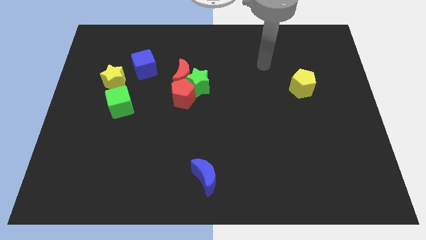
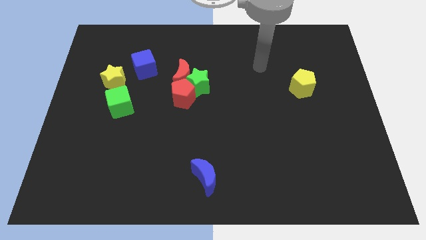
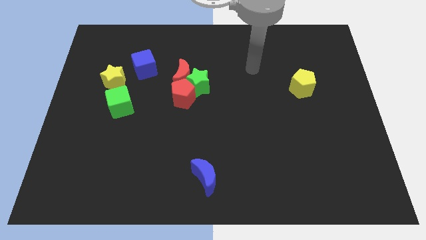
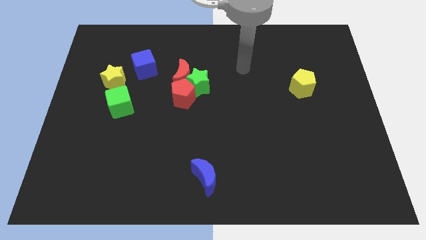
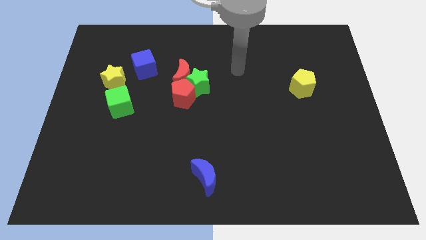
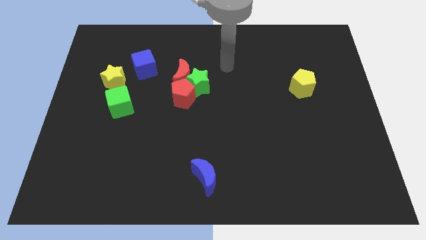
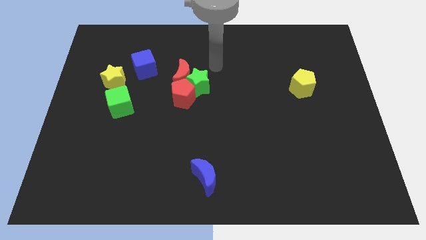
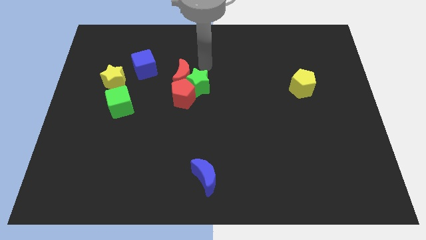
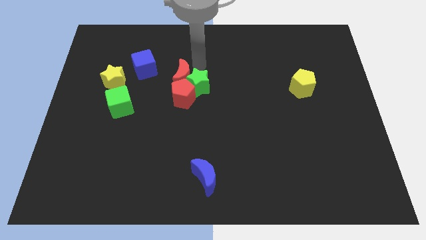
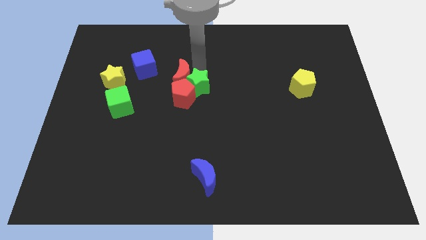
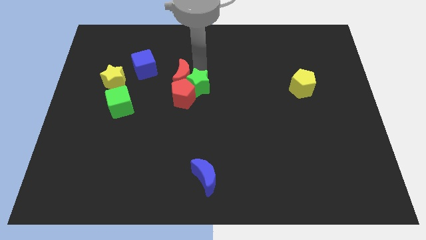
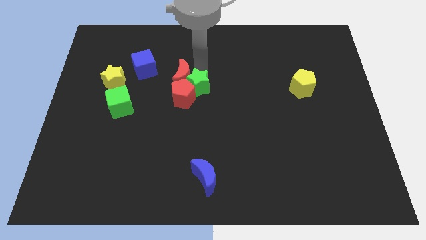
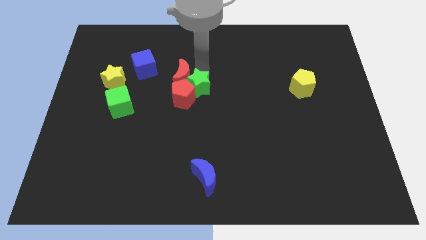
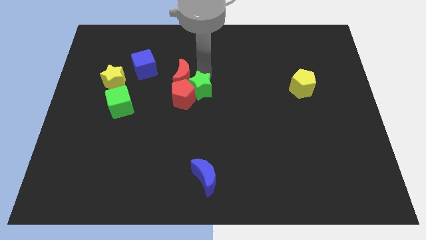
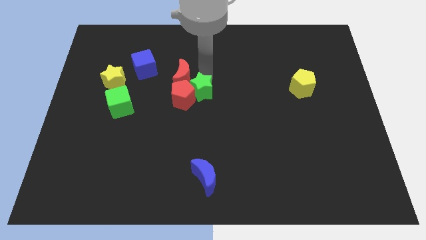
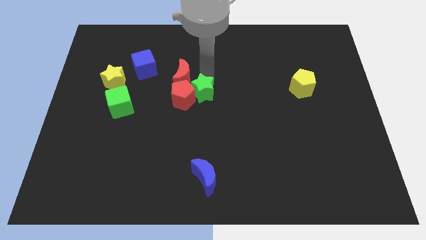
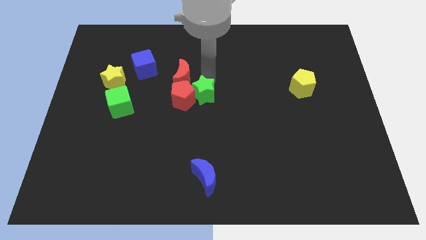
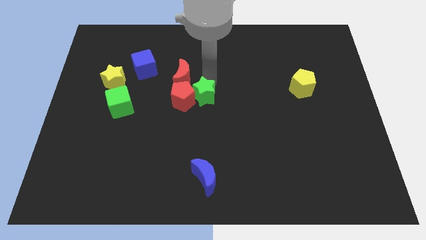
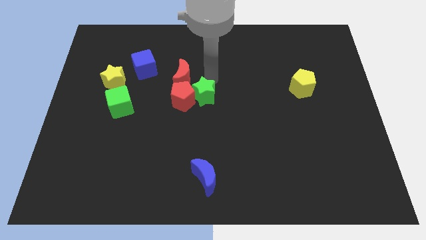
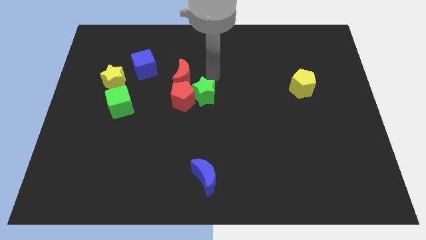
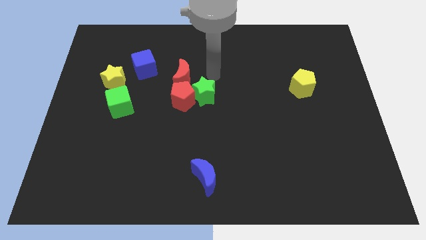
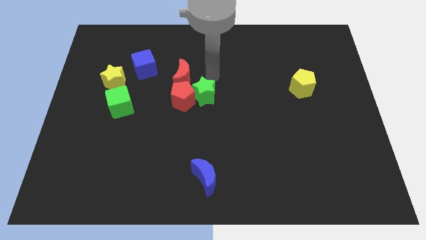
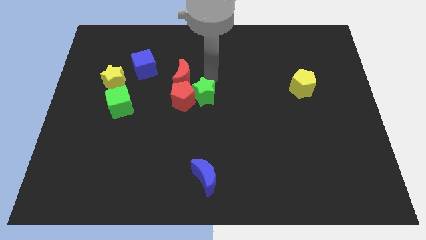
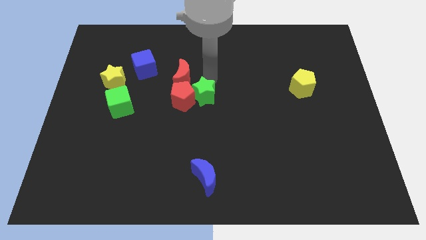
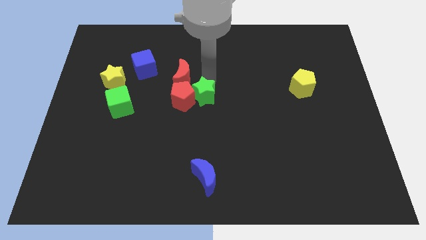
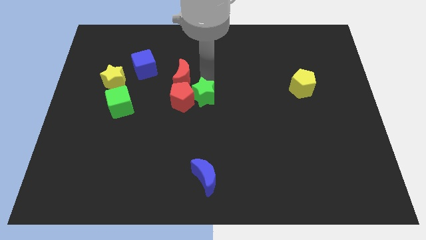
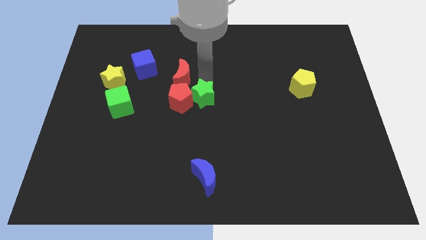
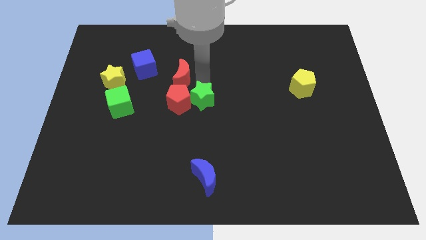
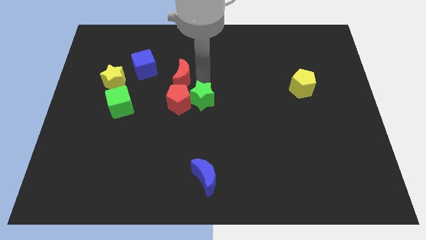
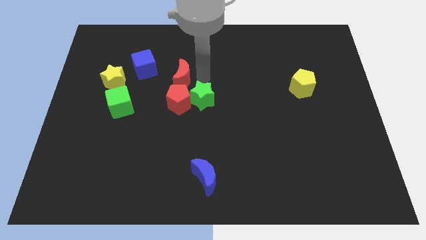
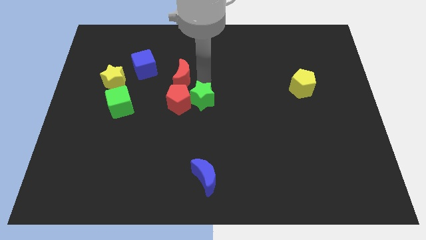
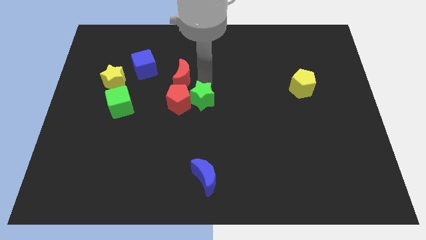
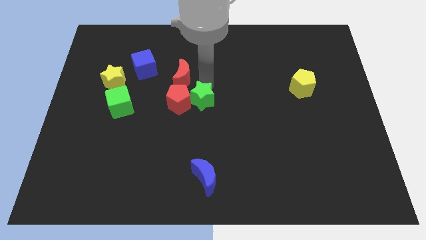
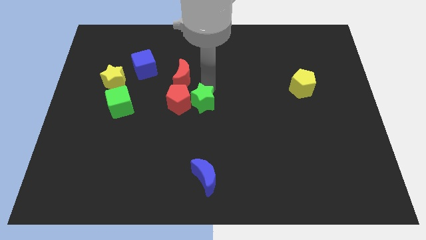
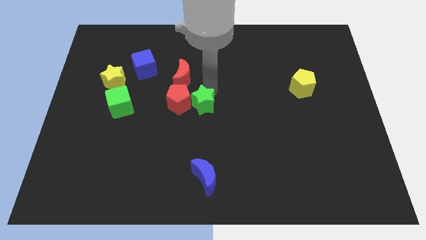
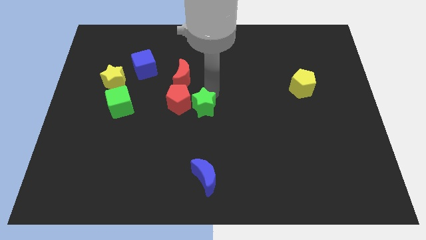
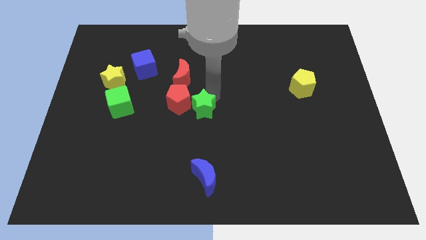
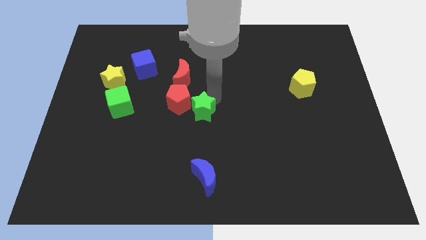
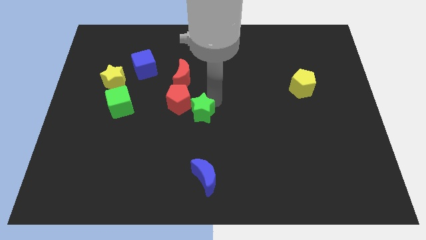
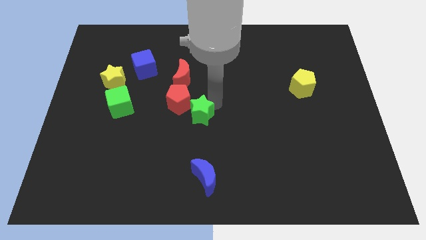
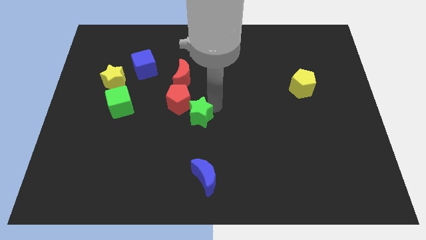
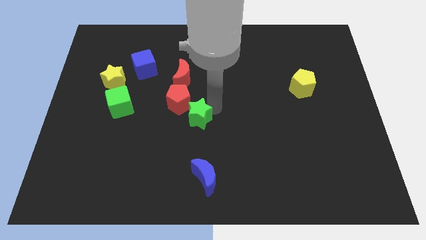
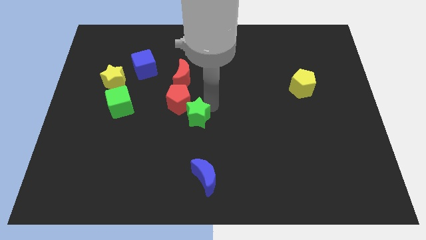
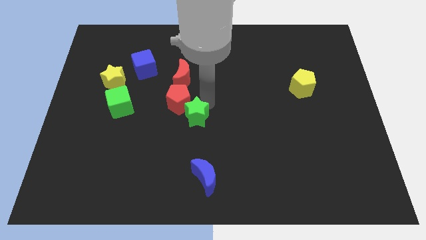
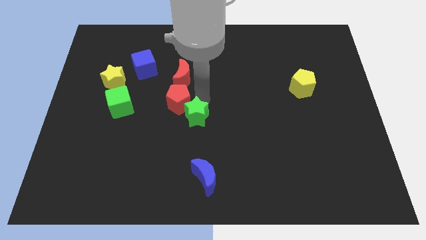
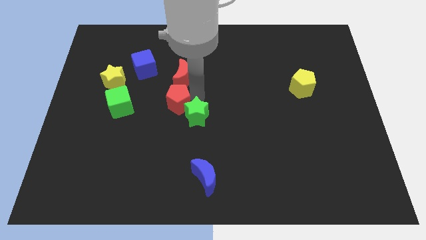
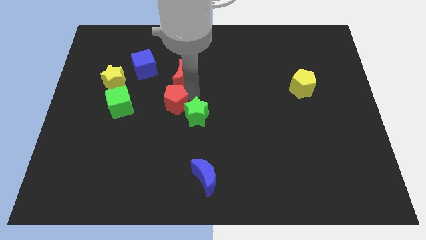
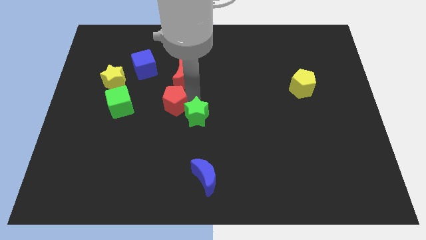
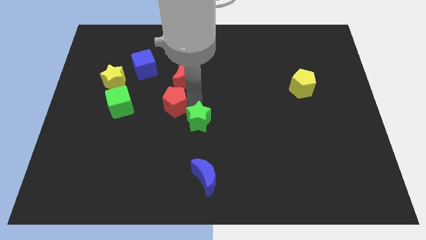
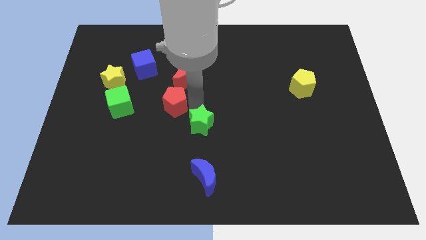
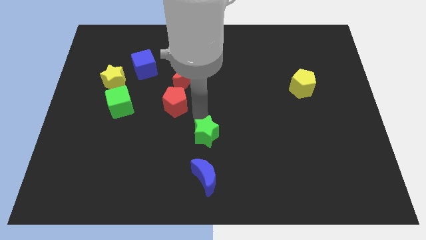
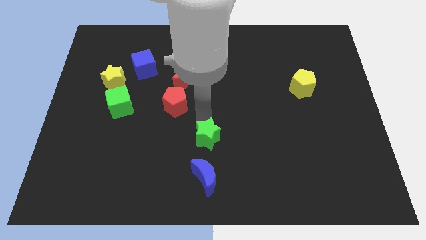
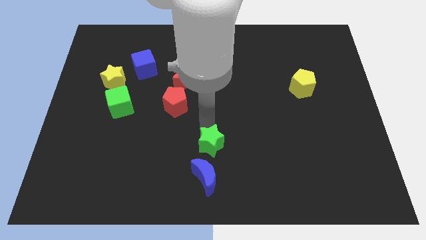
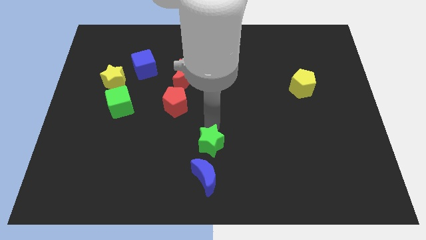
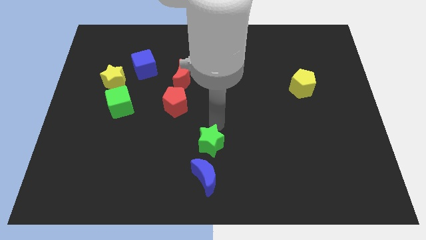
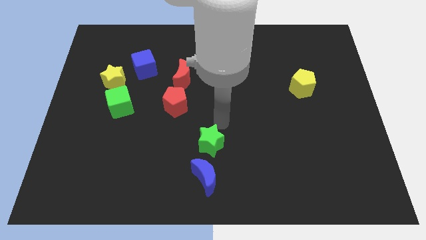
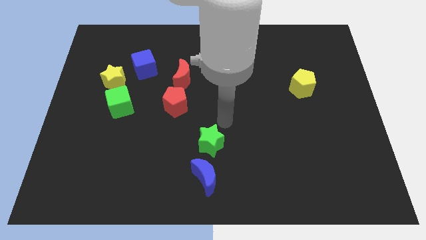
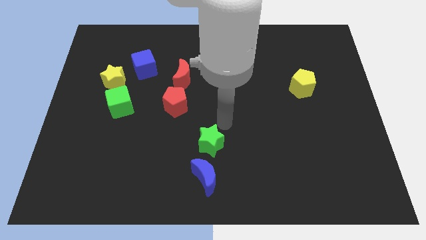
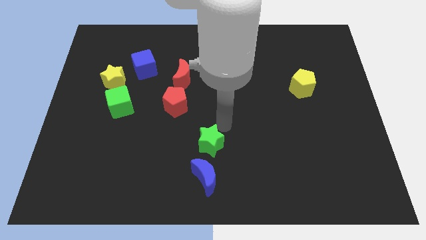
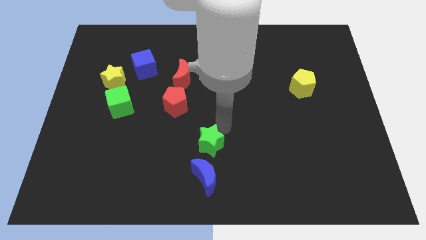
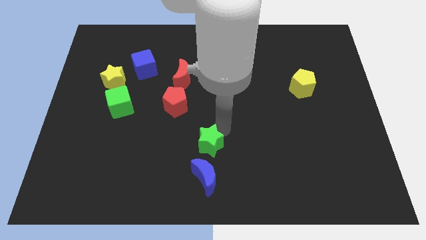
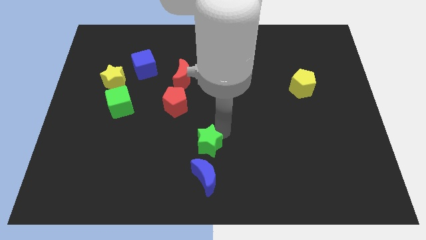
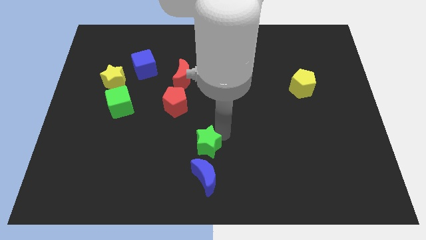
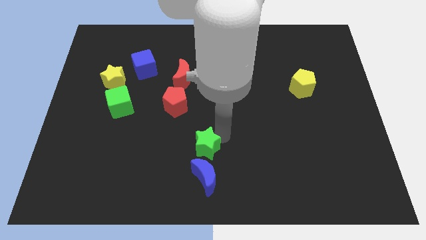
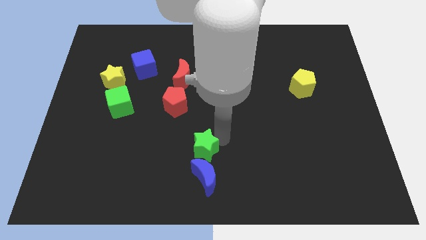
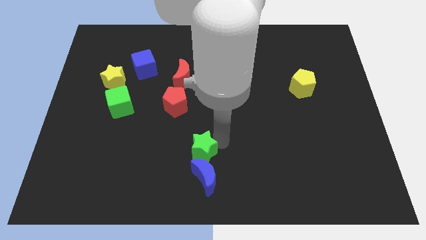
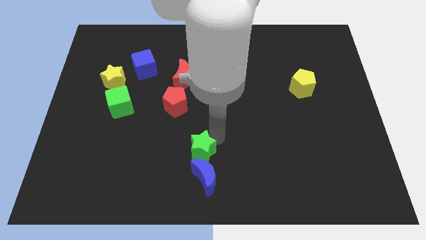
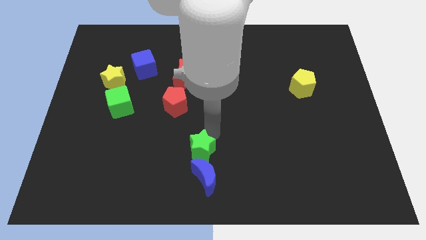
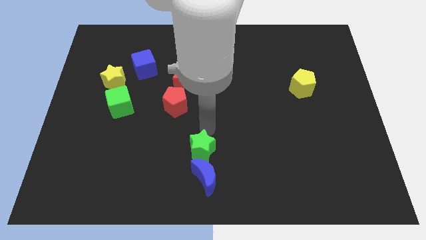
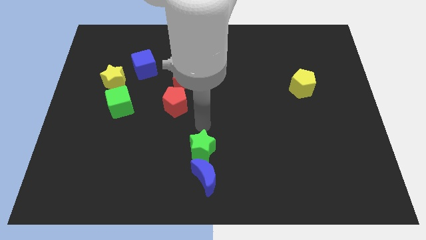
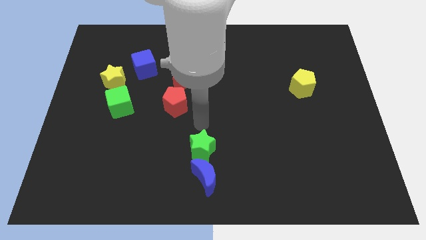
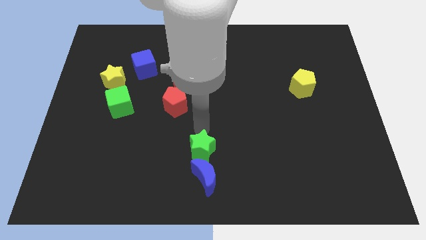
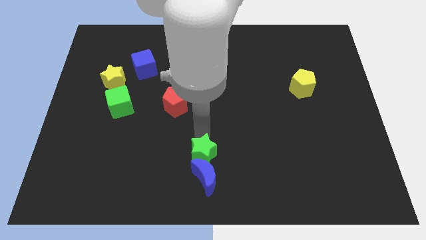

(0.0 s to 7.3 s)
slide the green star next to the blue moon
